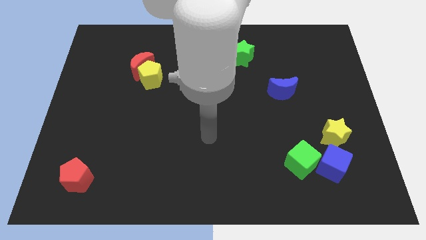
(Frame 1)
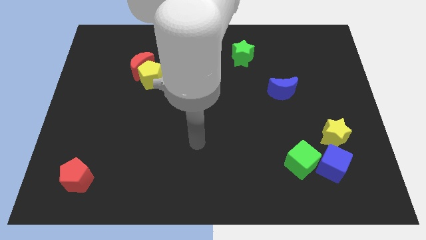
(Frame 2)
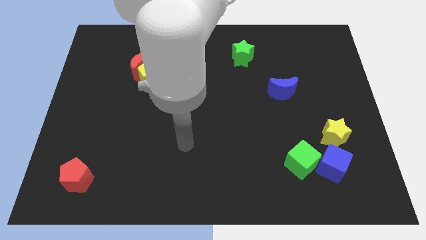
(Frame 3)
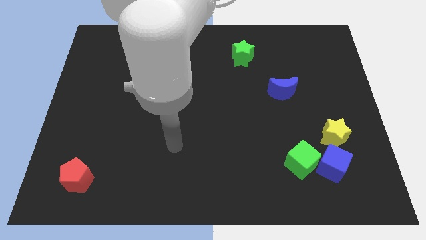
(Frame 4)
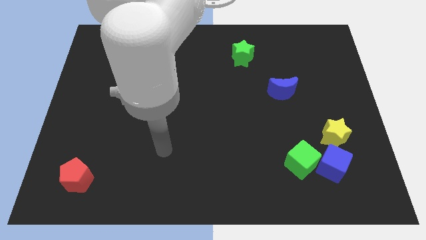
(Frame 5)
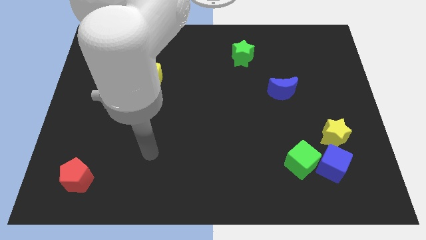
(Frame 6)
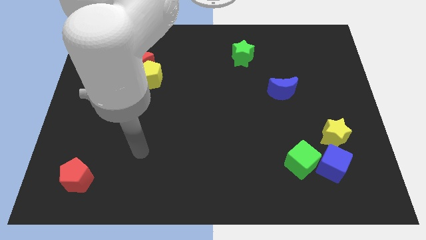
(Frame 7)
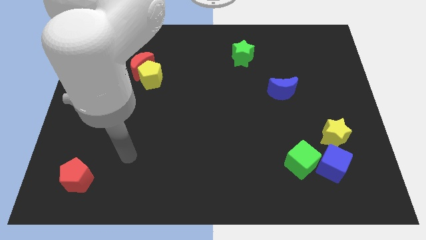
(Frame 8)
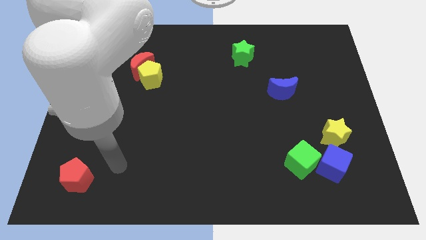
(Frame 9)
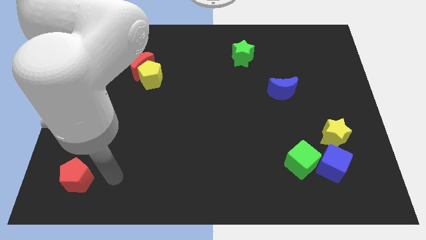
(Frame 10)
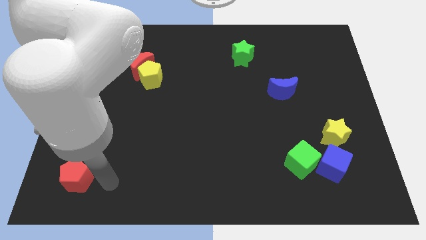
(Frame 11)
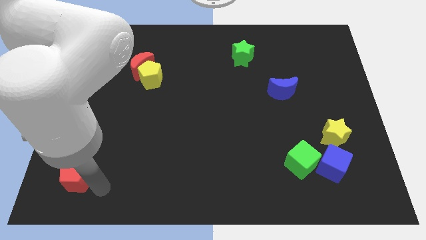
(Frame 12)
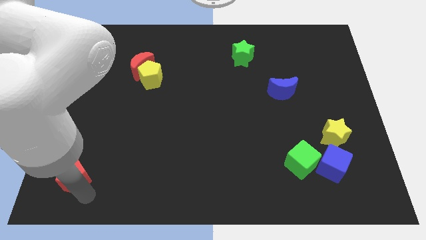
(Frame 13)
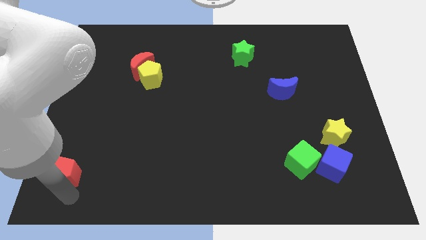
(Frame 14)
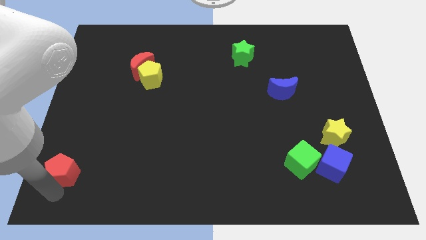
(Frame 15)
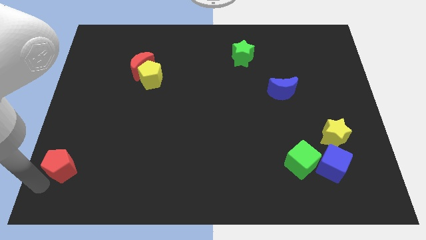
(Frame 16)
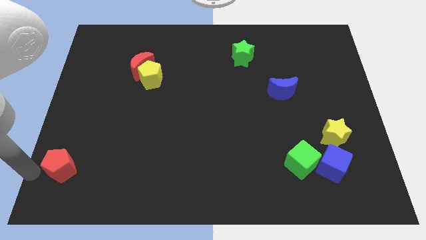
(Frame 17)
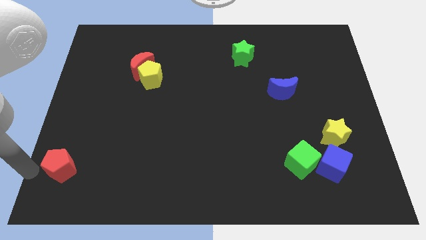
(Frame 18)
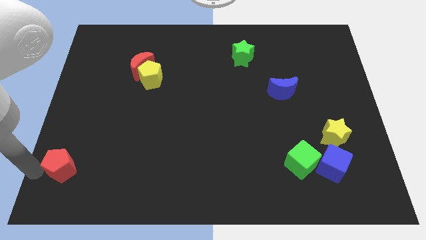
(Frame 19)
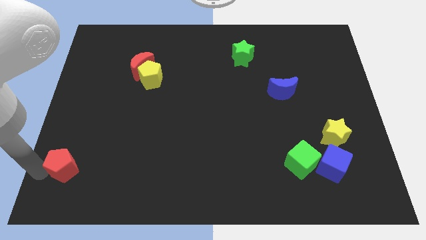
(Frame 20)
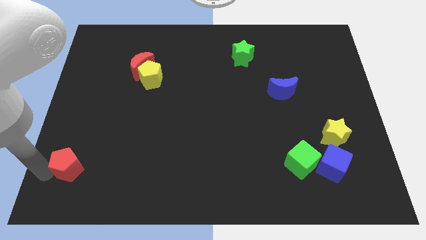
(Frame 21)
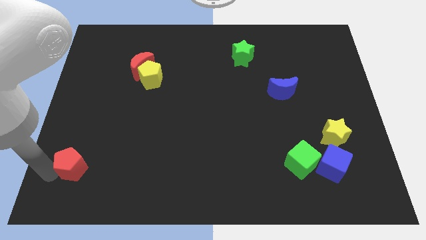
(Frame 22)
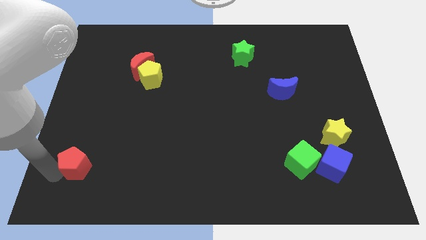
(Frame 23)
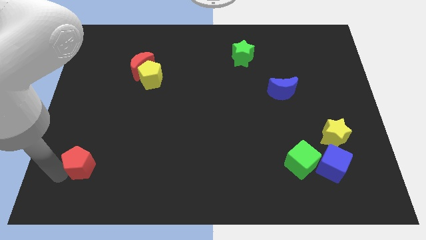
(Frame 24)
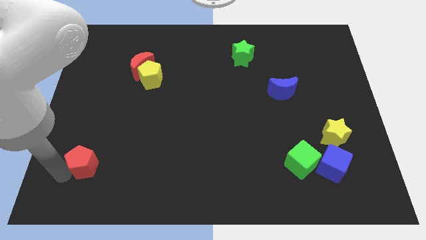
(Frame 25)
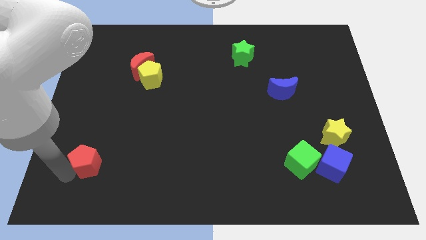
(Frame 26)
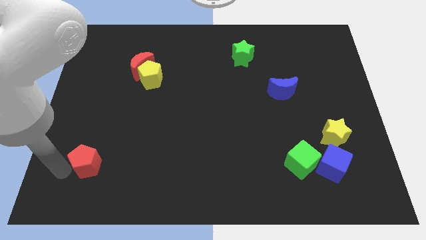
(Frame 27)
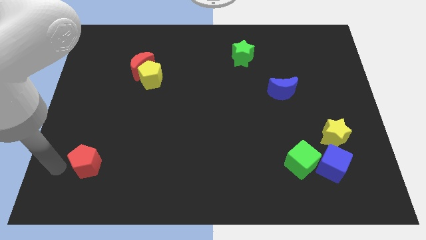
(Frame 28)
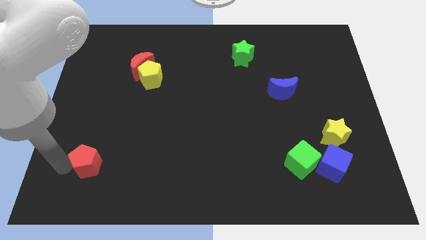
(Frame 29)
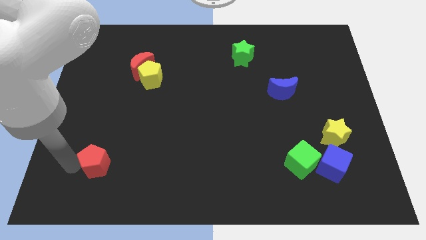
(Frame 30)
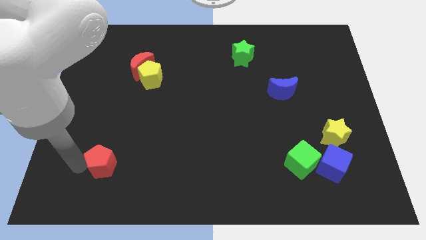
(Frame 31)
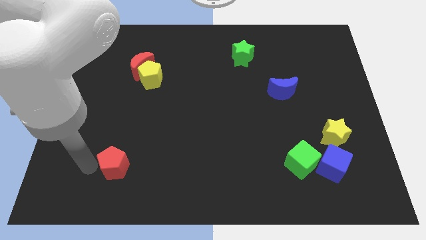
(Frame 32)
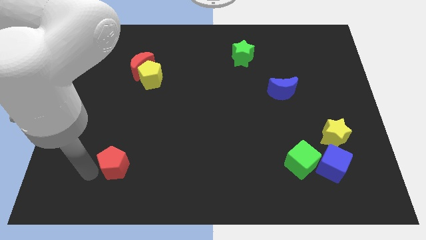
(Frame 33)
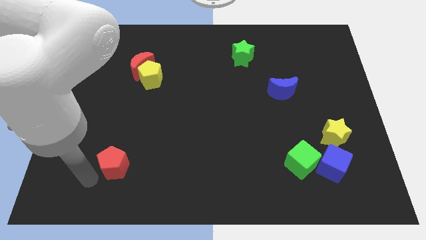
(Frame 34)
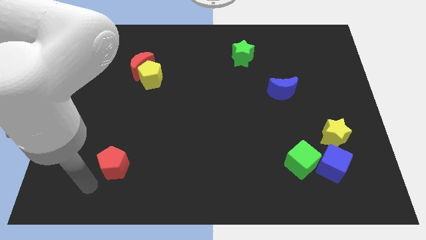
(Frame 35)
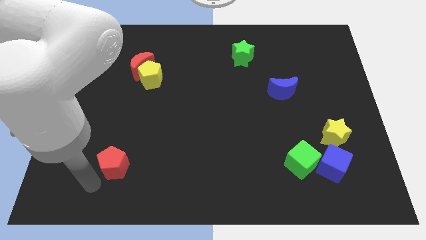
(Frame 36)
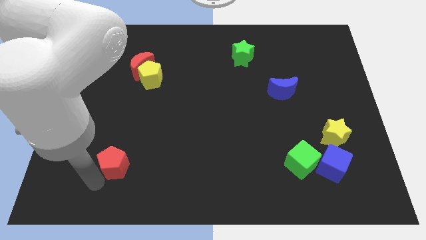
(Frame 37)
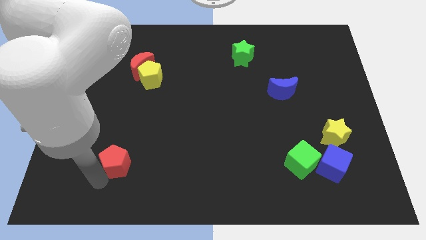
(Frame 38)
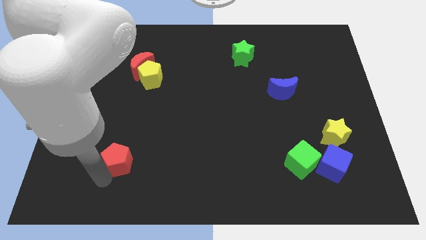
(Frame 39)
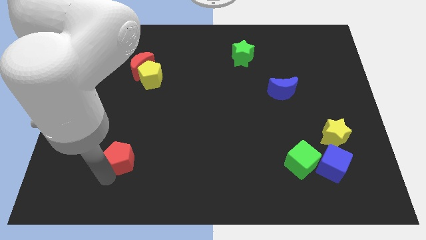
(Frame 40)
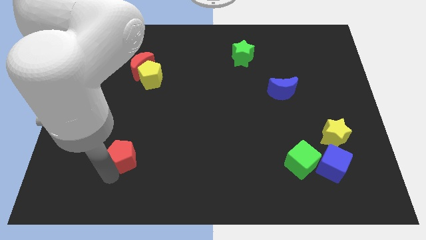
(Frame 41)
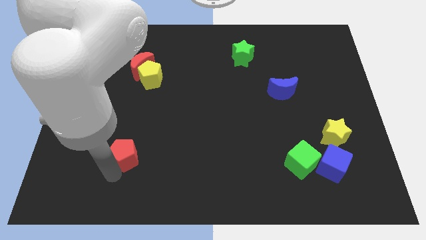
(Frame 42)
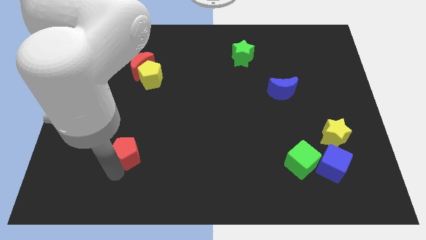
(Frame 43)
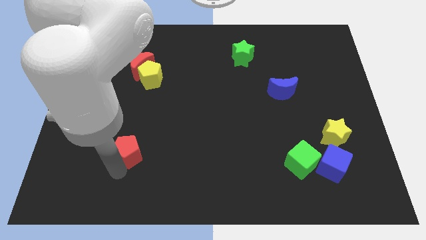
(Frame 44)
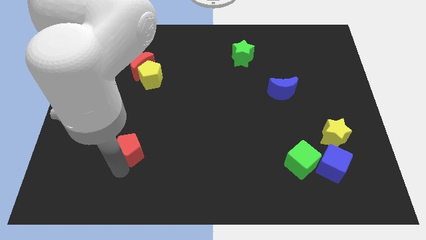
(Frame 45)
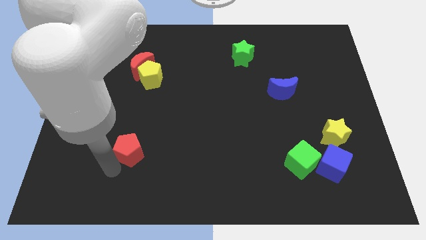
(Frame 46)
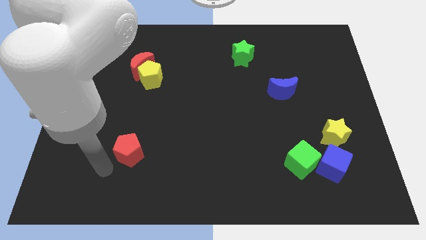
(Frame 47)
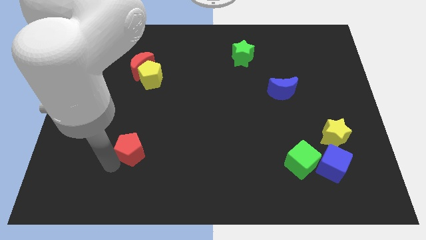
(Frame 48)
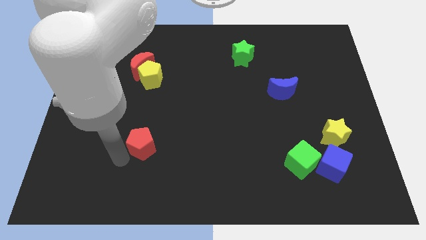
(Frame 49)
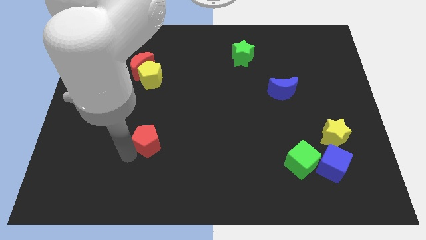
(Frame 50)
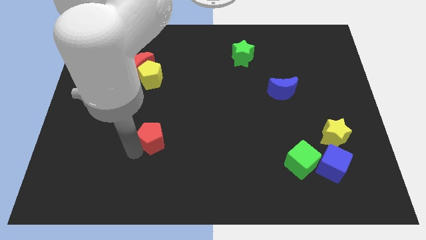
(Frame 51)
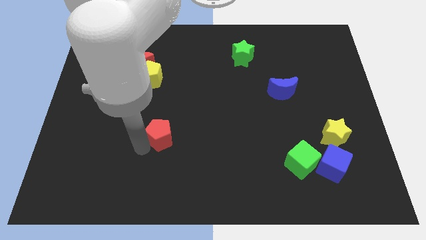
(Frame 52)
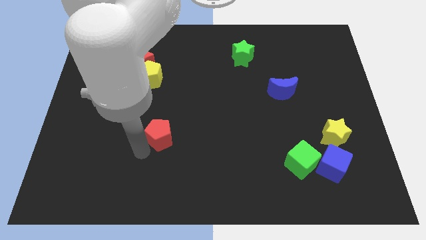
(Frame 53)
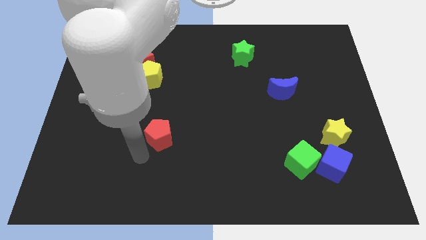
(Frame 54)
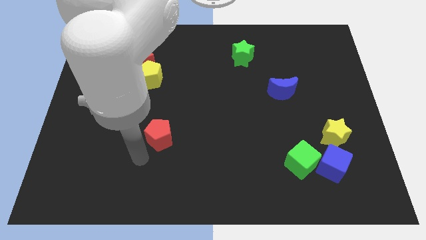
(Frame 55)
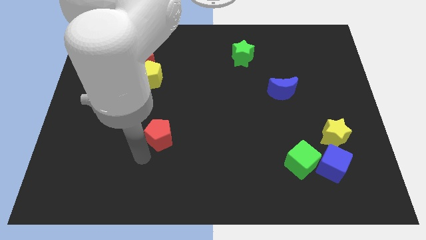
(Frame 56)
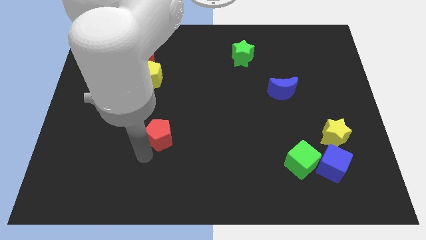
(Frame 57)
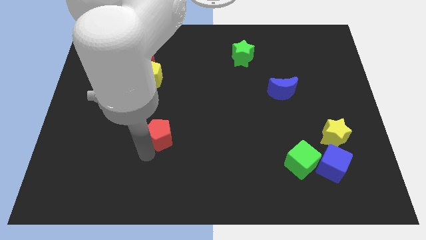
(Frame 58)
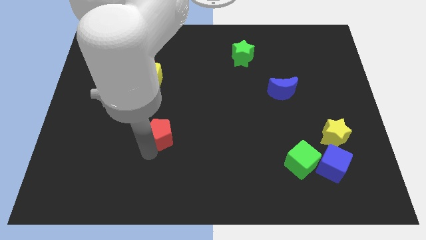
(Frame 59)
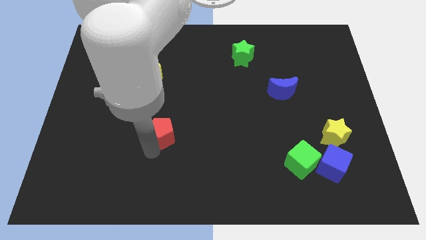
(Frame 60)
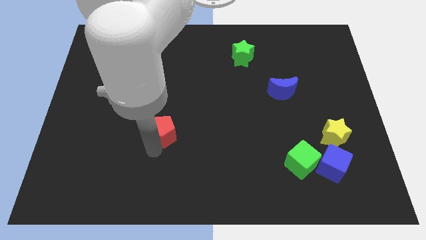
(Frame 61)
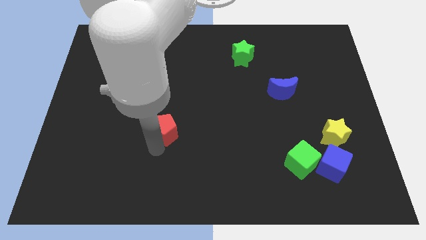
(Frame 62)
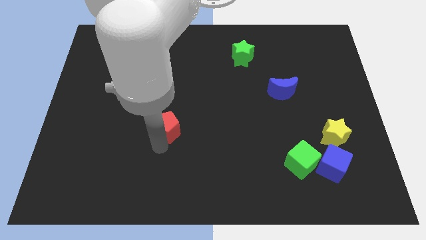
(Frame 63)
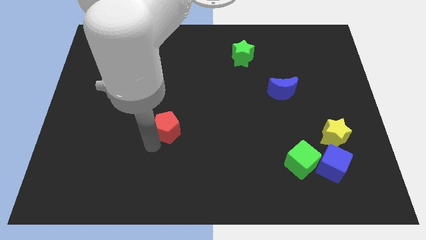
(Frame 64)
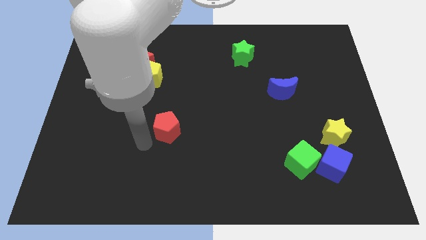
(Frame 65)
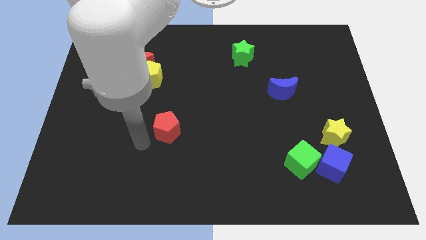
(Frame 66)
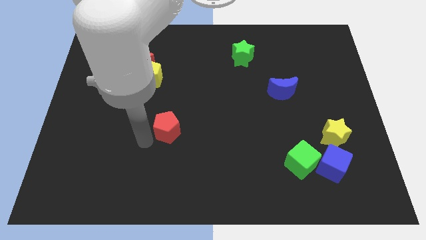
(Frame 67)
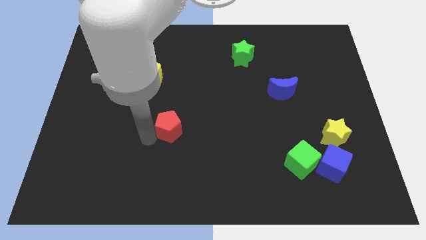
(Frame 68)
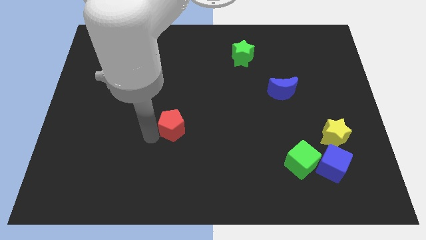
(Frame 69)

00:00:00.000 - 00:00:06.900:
move the red pentagon to the center of the board
